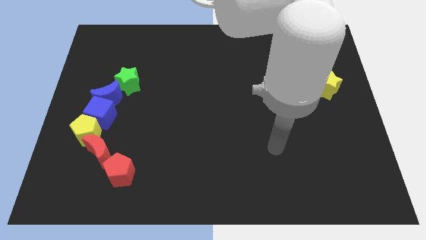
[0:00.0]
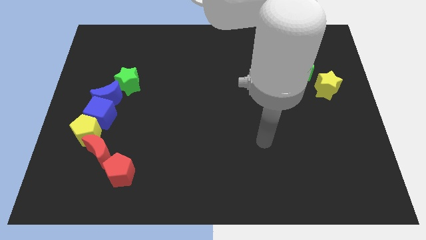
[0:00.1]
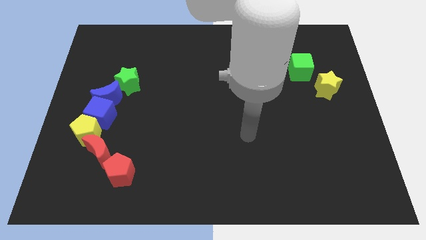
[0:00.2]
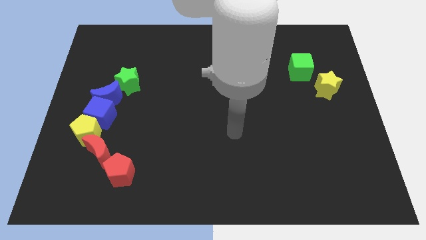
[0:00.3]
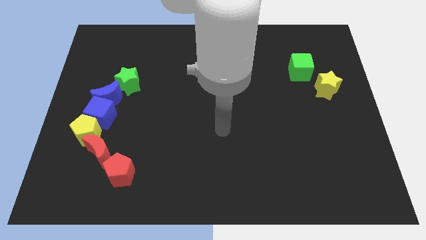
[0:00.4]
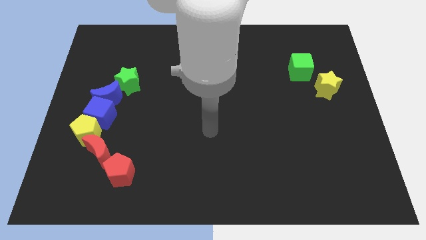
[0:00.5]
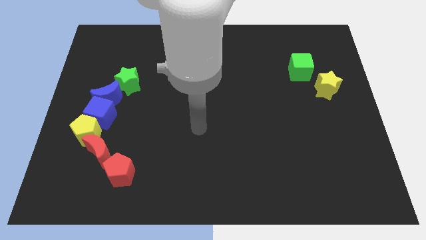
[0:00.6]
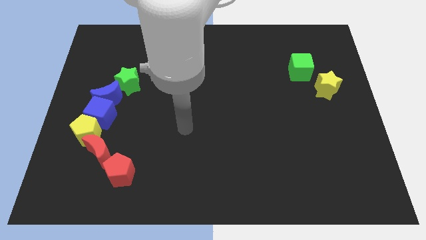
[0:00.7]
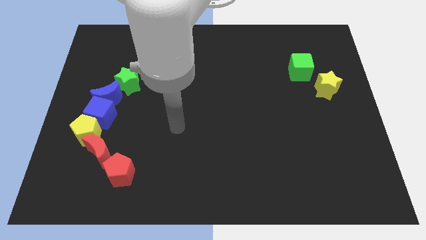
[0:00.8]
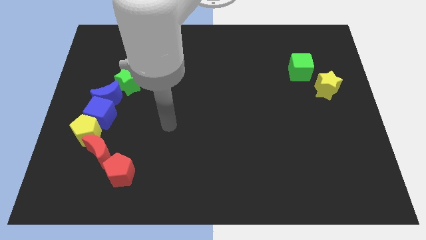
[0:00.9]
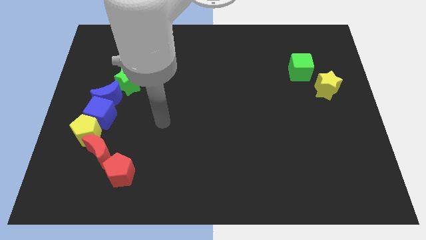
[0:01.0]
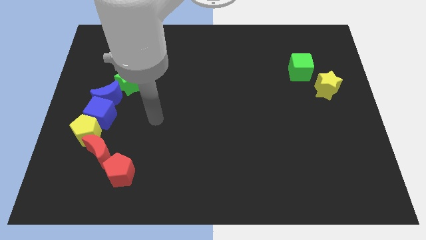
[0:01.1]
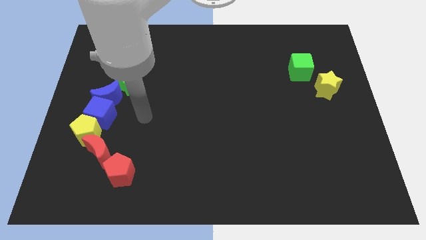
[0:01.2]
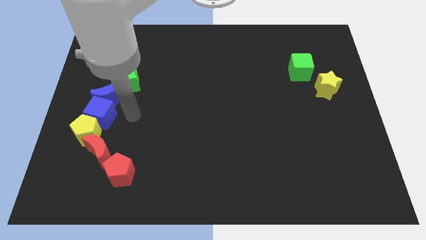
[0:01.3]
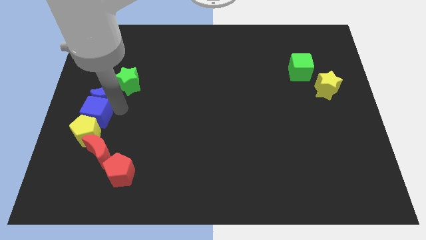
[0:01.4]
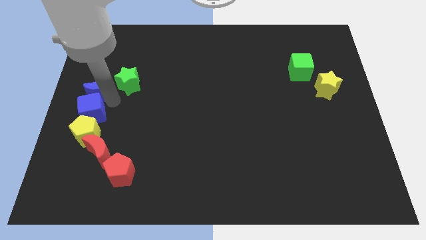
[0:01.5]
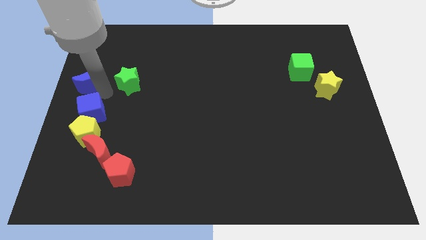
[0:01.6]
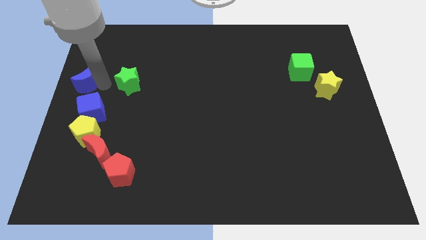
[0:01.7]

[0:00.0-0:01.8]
pull the green star apart from the blue moon

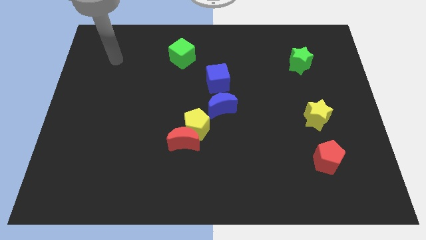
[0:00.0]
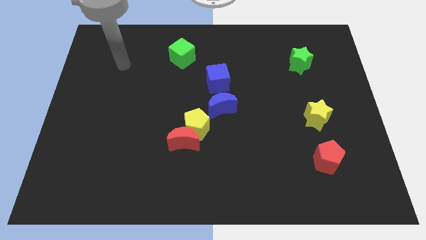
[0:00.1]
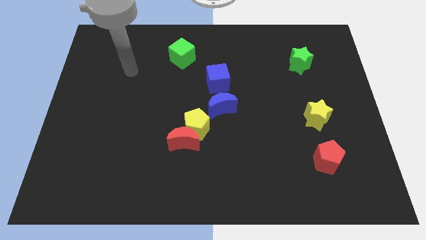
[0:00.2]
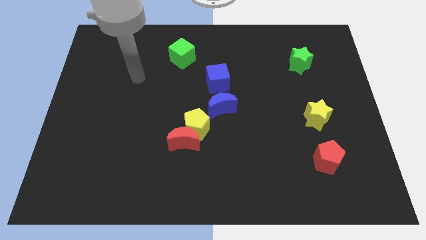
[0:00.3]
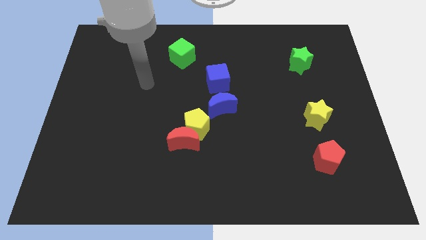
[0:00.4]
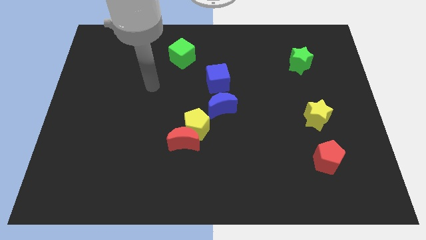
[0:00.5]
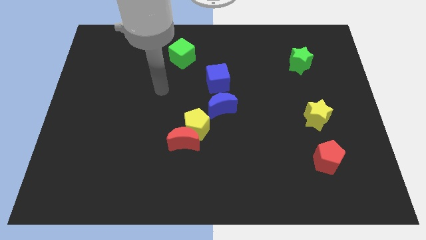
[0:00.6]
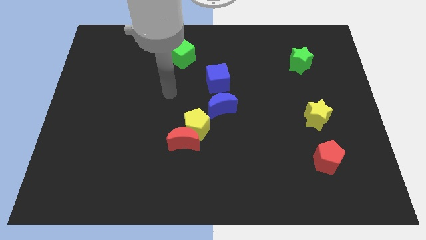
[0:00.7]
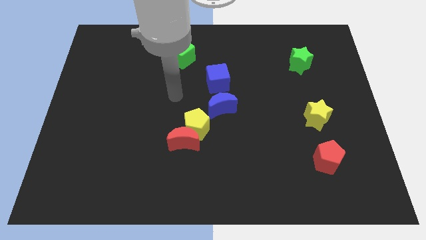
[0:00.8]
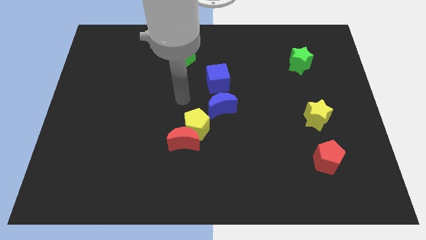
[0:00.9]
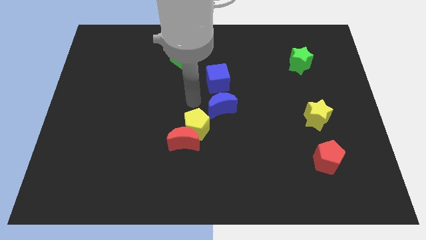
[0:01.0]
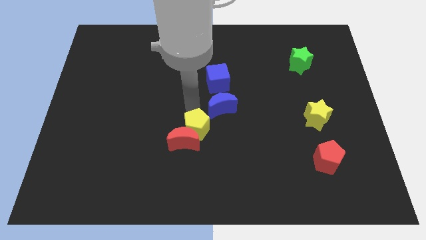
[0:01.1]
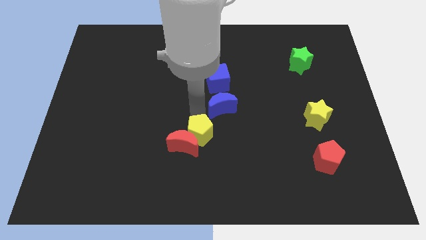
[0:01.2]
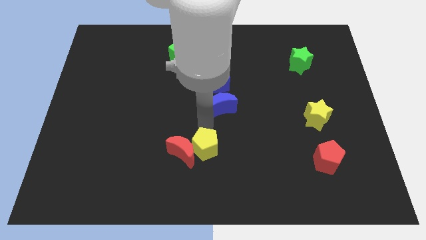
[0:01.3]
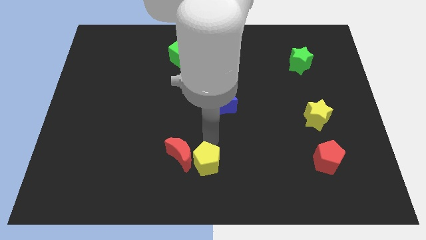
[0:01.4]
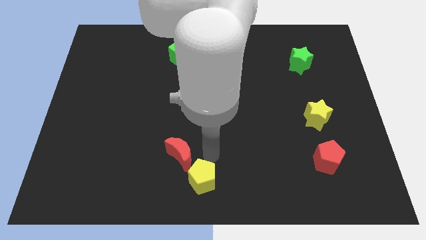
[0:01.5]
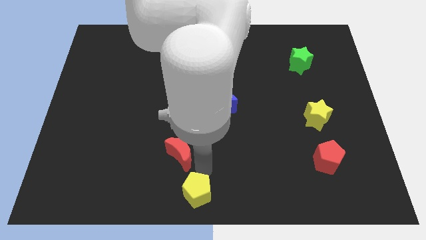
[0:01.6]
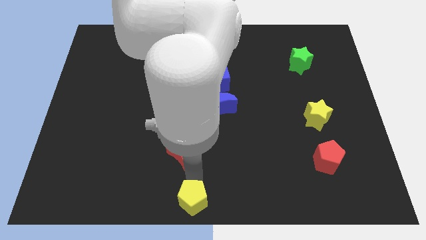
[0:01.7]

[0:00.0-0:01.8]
pull the red moon apart from the yellow pentagon

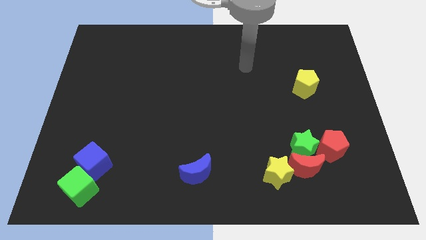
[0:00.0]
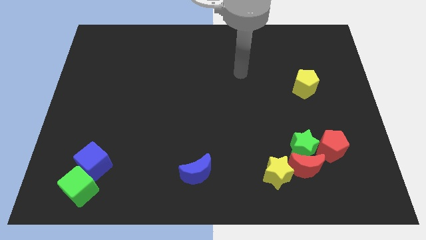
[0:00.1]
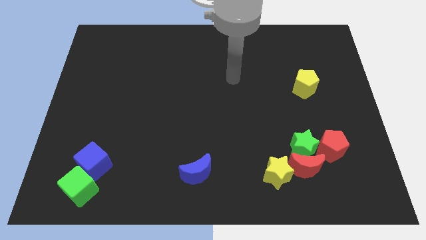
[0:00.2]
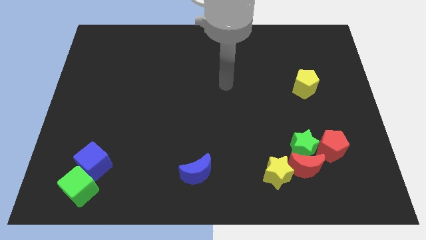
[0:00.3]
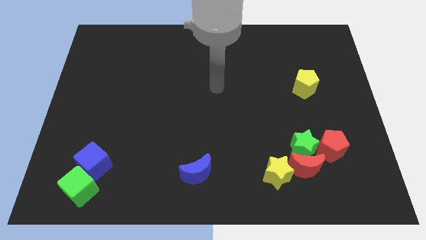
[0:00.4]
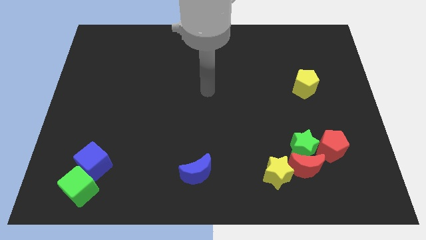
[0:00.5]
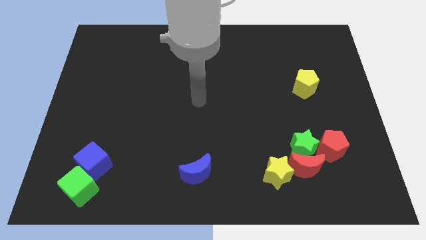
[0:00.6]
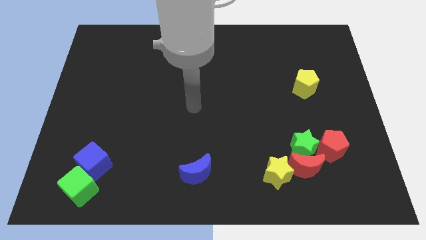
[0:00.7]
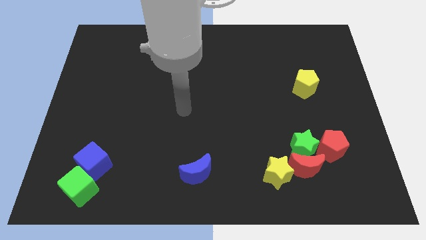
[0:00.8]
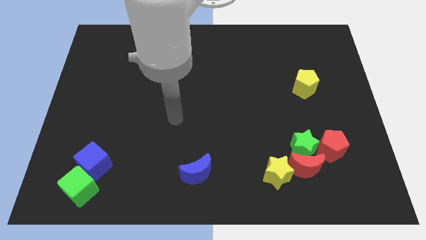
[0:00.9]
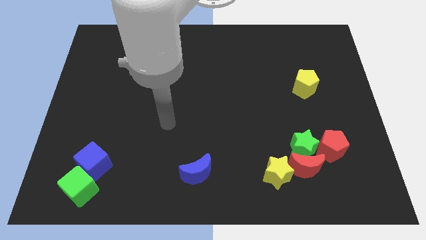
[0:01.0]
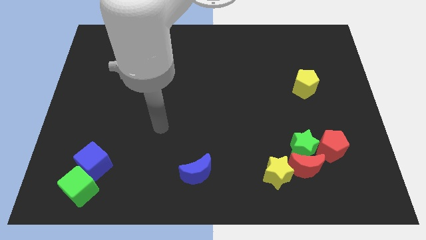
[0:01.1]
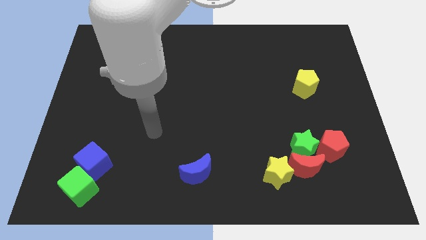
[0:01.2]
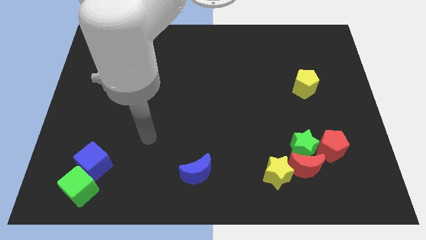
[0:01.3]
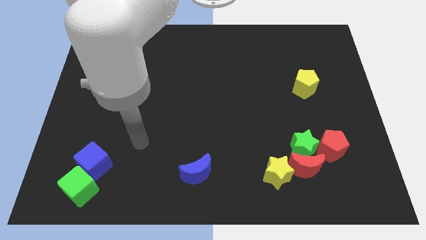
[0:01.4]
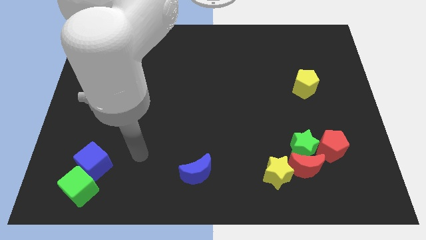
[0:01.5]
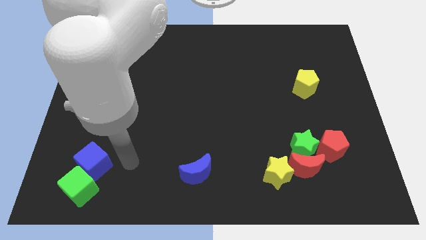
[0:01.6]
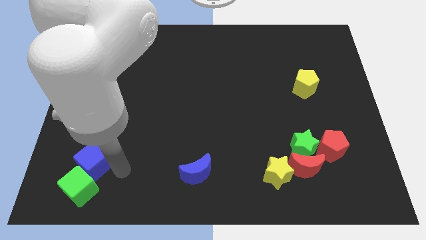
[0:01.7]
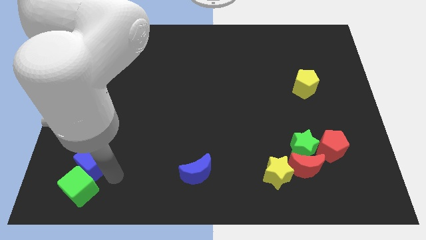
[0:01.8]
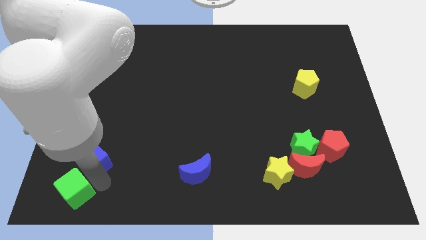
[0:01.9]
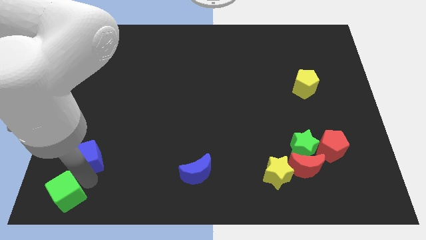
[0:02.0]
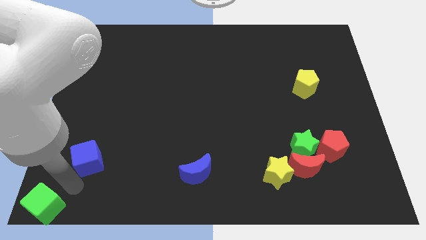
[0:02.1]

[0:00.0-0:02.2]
move the blue cube away from the green cube

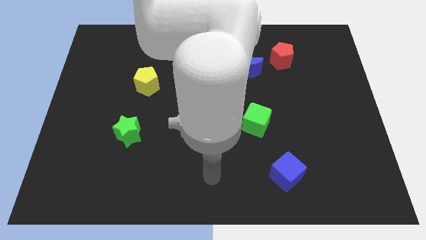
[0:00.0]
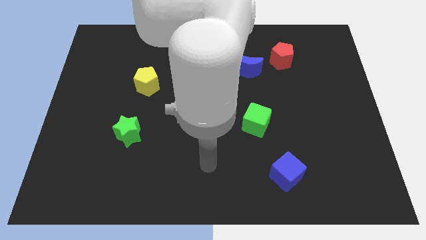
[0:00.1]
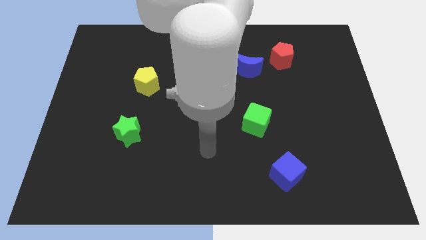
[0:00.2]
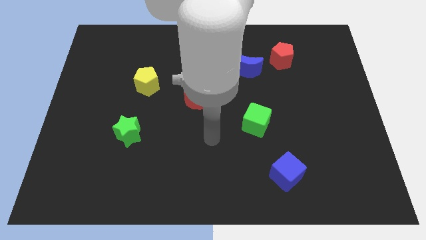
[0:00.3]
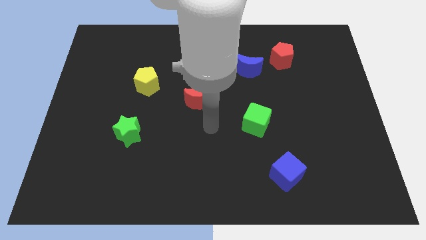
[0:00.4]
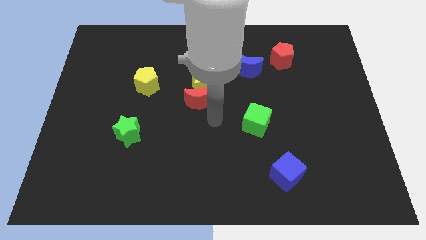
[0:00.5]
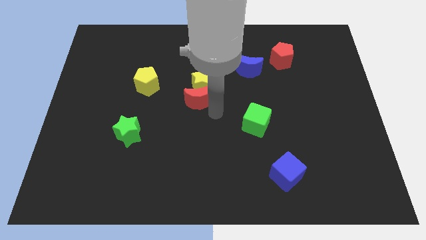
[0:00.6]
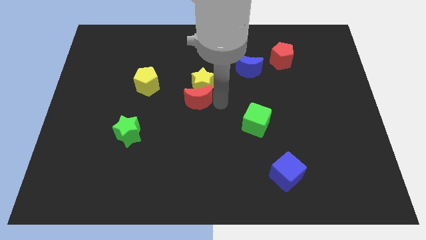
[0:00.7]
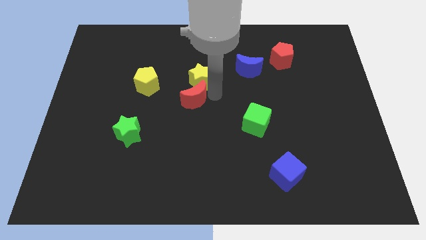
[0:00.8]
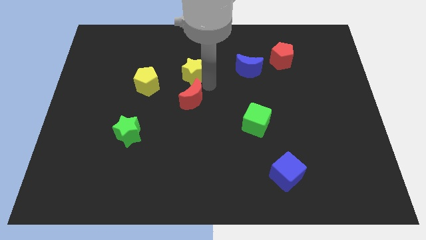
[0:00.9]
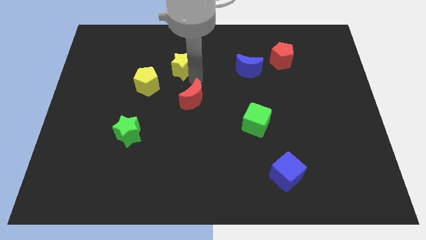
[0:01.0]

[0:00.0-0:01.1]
pull the red moon apart from the yellow star

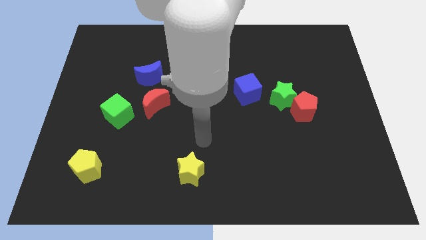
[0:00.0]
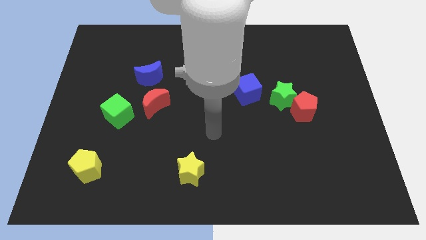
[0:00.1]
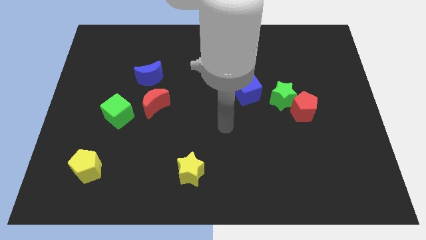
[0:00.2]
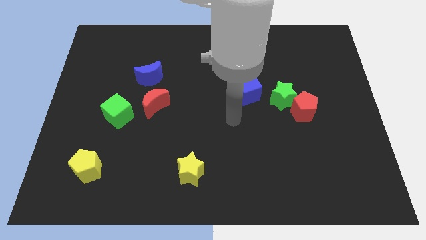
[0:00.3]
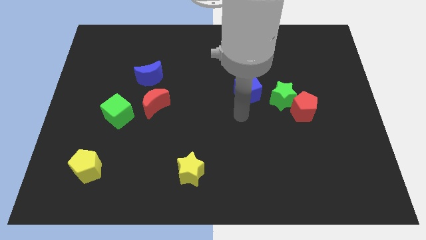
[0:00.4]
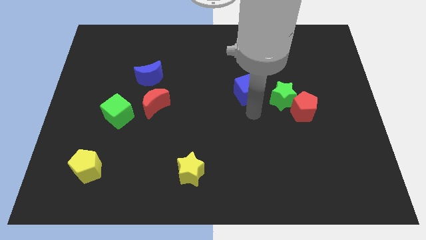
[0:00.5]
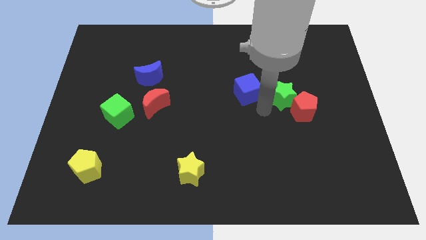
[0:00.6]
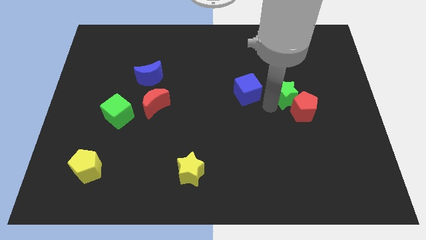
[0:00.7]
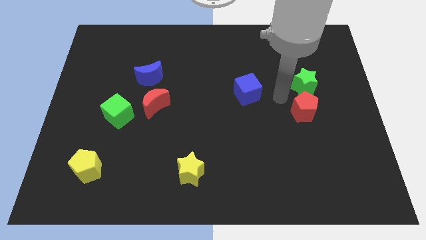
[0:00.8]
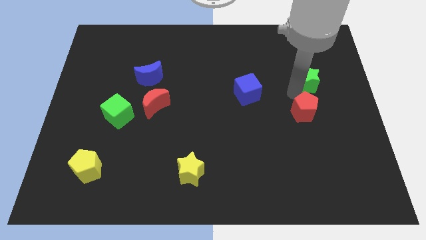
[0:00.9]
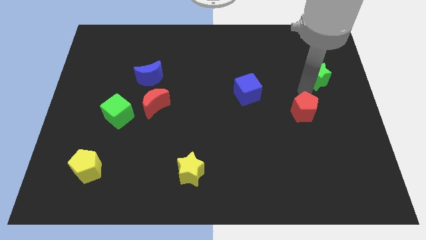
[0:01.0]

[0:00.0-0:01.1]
move the red pentagon away from the green star

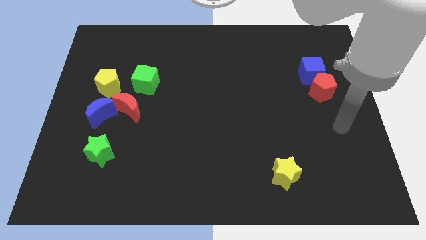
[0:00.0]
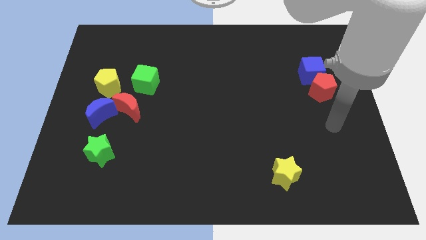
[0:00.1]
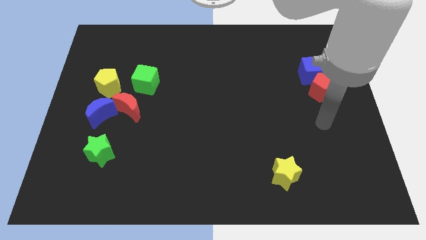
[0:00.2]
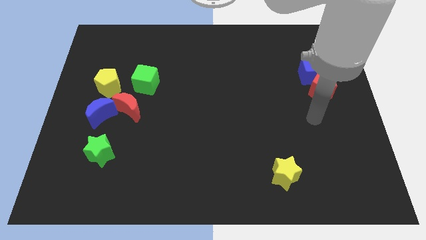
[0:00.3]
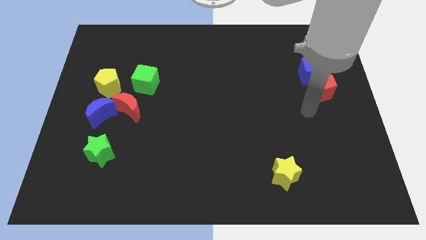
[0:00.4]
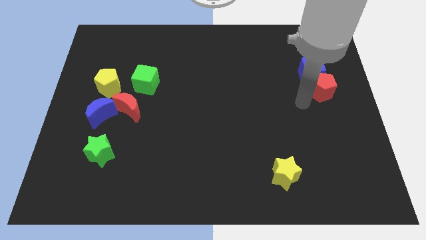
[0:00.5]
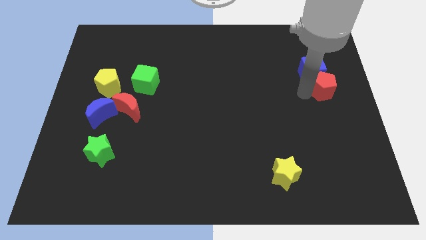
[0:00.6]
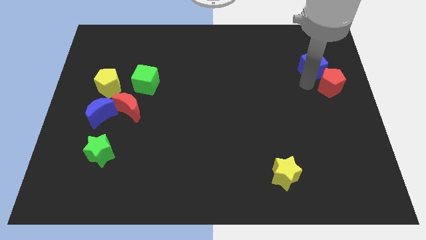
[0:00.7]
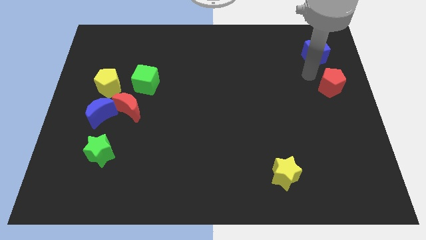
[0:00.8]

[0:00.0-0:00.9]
pull the red pentagon apart from the blue cube

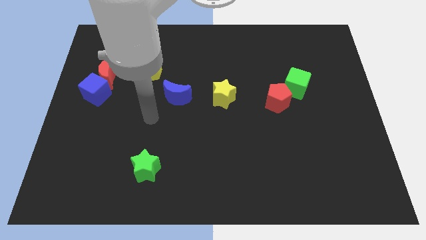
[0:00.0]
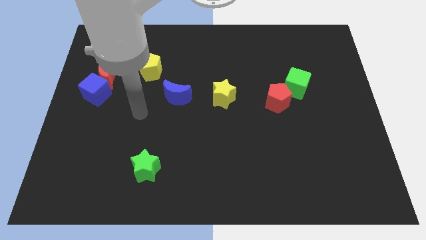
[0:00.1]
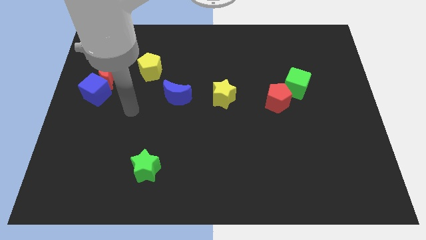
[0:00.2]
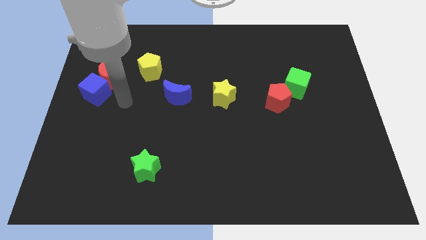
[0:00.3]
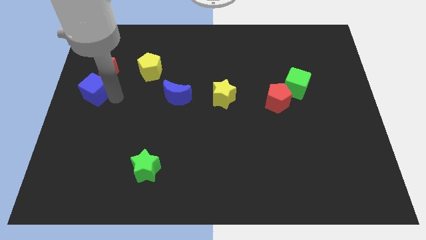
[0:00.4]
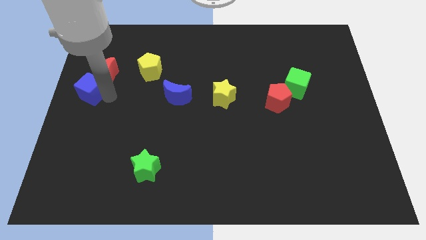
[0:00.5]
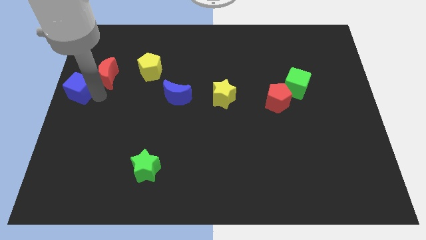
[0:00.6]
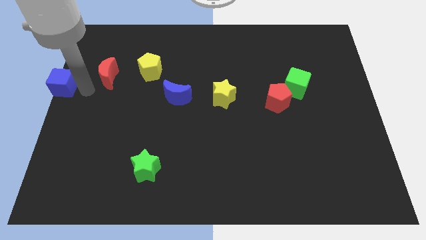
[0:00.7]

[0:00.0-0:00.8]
separate the red moon from the blue cube
